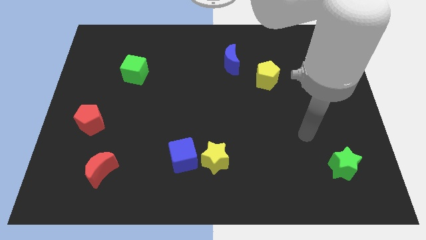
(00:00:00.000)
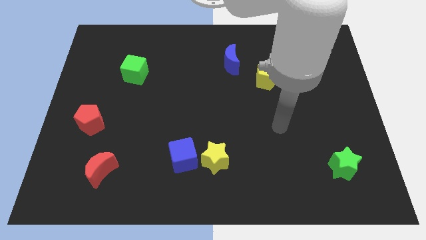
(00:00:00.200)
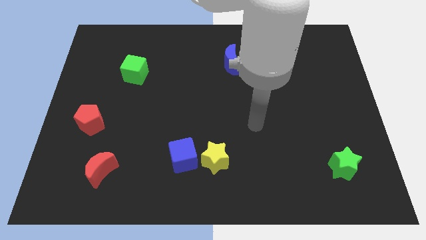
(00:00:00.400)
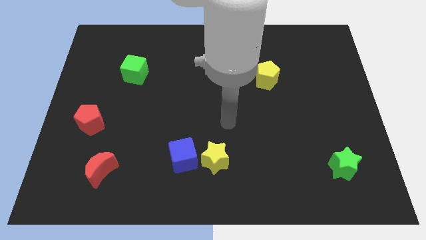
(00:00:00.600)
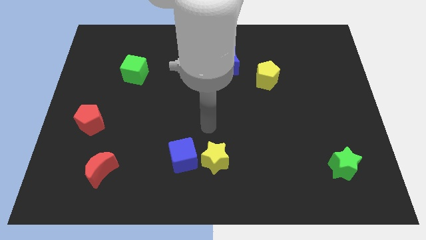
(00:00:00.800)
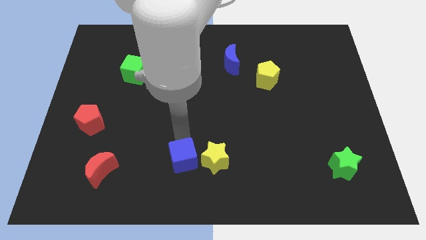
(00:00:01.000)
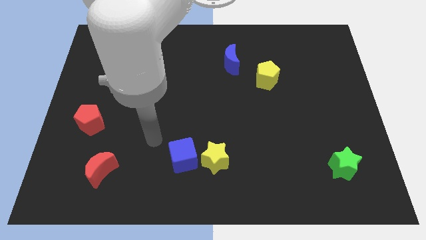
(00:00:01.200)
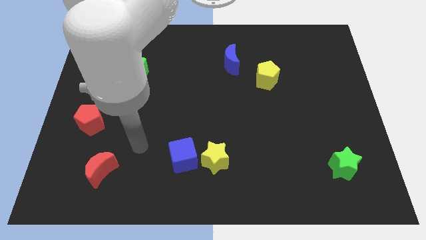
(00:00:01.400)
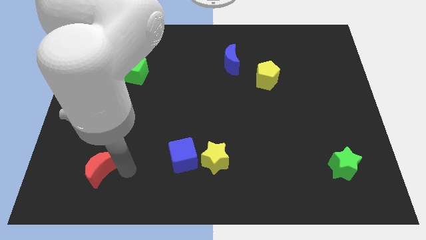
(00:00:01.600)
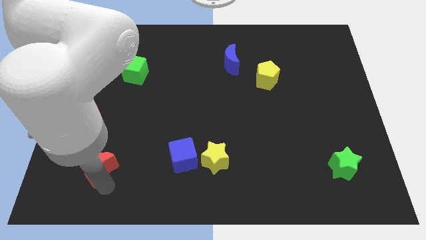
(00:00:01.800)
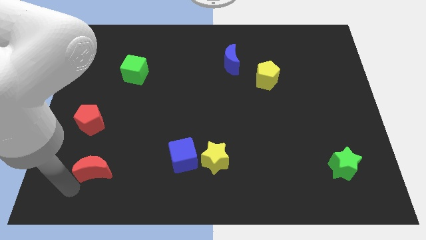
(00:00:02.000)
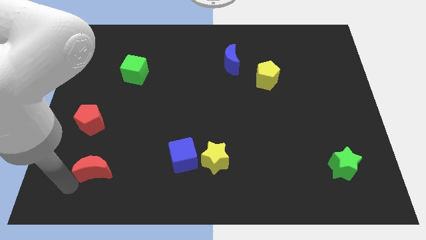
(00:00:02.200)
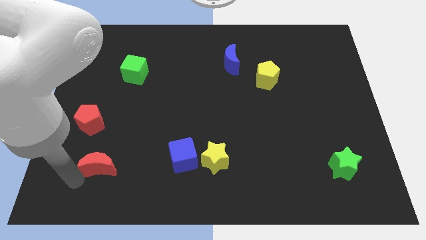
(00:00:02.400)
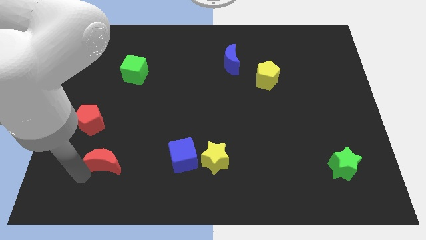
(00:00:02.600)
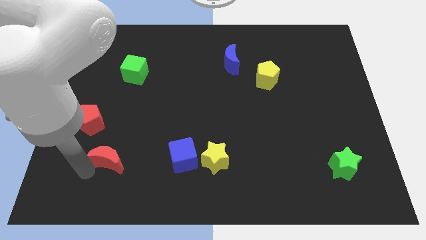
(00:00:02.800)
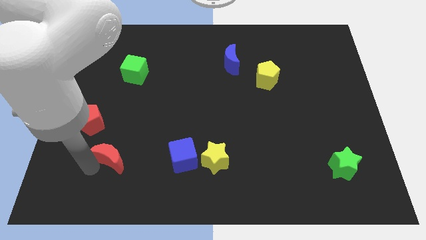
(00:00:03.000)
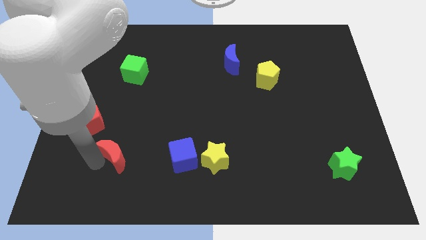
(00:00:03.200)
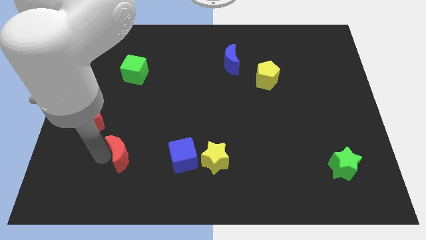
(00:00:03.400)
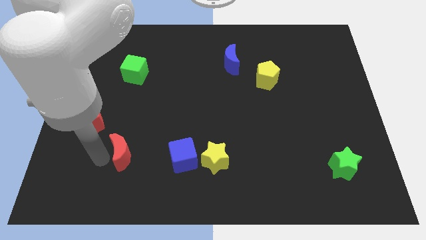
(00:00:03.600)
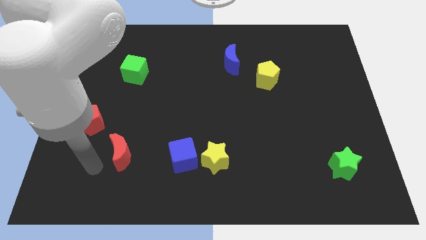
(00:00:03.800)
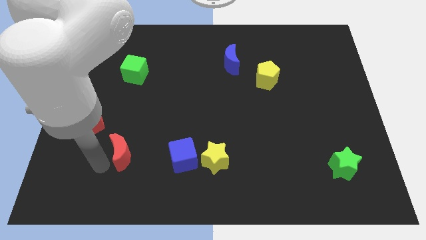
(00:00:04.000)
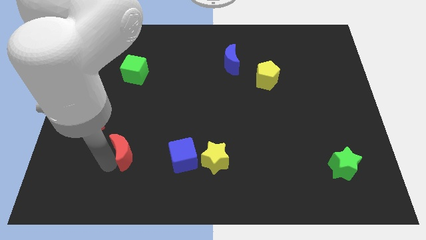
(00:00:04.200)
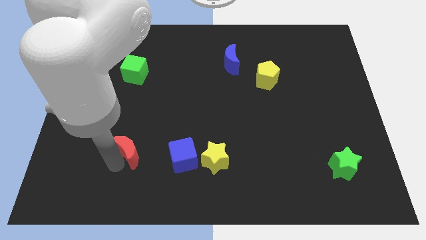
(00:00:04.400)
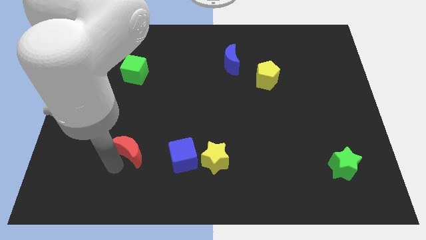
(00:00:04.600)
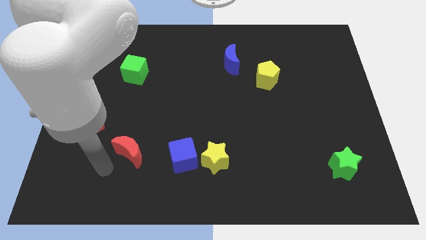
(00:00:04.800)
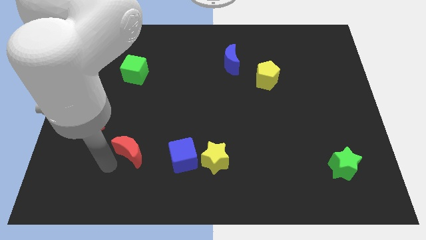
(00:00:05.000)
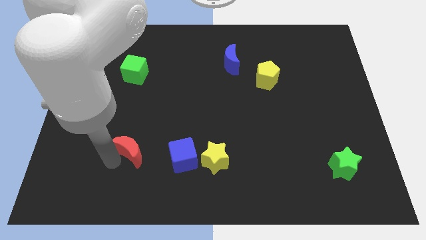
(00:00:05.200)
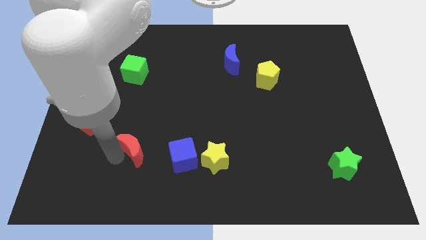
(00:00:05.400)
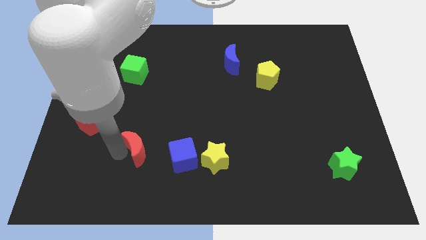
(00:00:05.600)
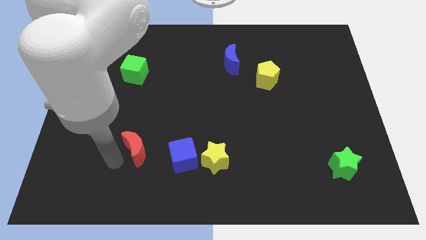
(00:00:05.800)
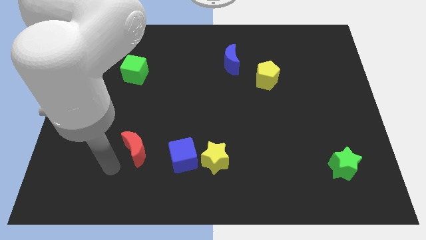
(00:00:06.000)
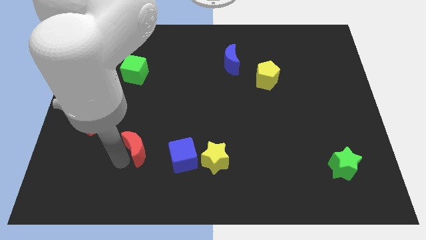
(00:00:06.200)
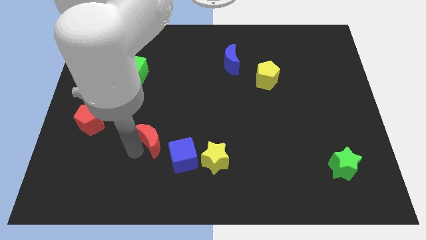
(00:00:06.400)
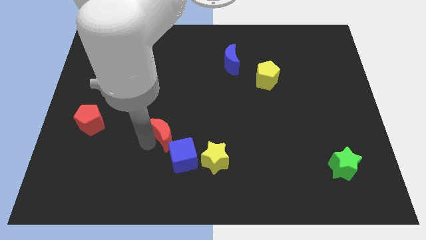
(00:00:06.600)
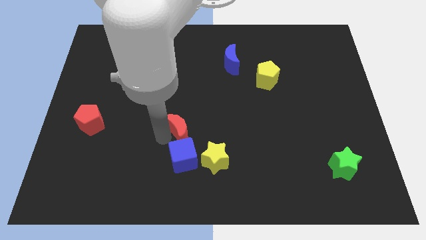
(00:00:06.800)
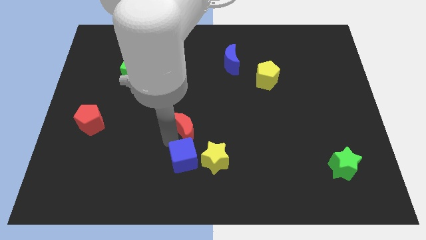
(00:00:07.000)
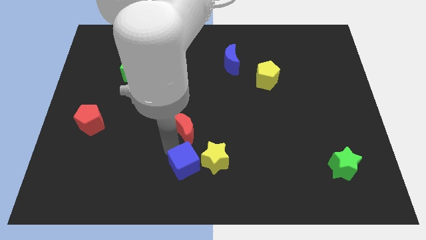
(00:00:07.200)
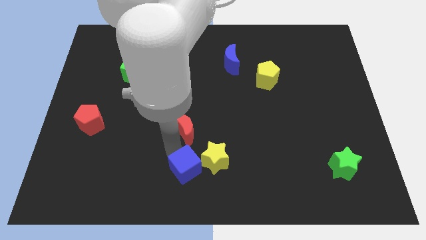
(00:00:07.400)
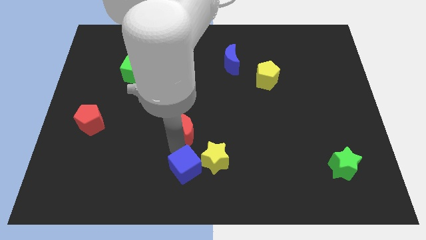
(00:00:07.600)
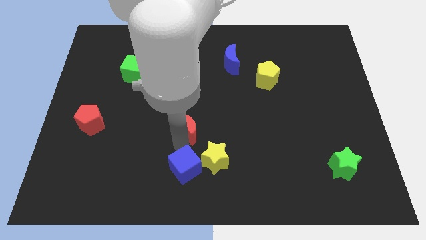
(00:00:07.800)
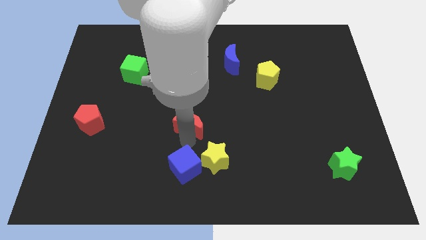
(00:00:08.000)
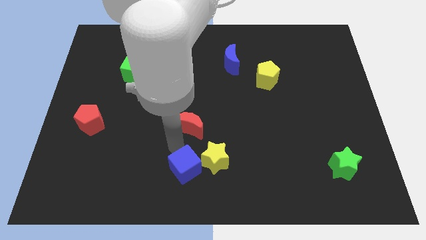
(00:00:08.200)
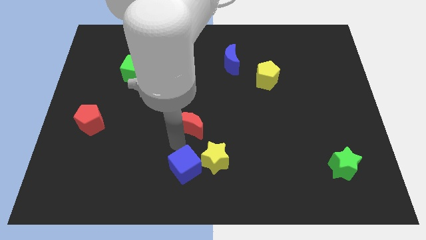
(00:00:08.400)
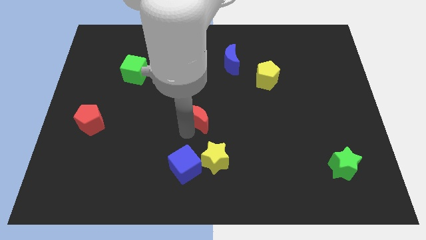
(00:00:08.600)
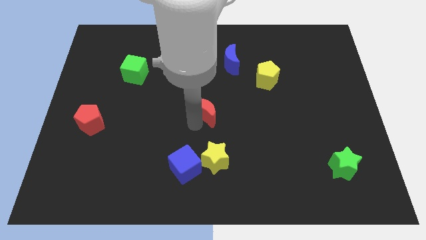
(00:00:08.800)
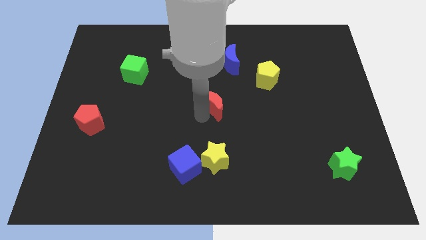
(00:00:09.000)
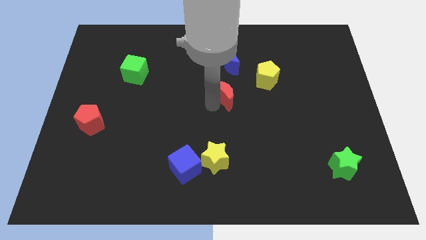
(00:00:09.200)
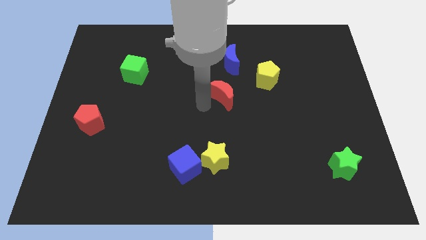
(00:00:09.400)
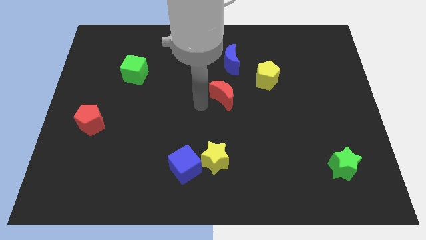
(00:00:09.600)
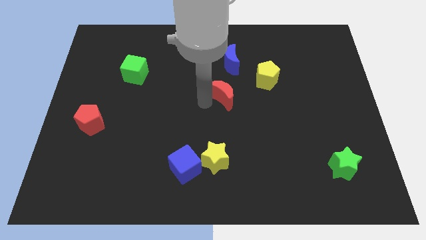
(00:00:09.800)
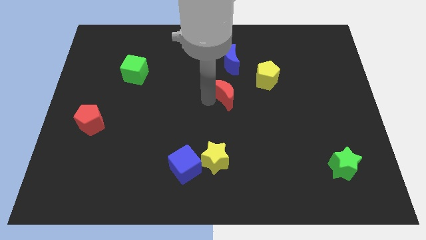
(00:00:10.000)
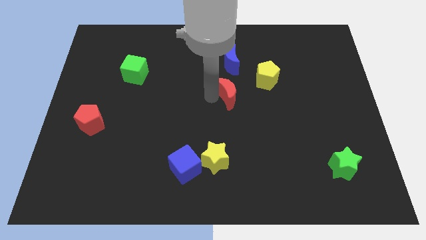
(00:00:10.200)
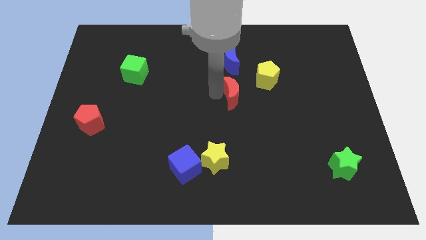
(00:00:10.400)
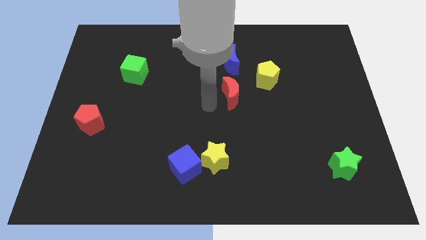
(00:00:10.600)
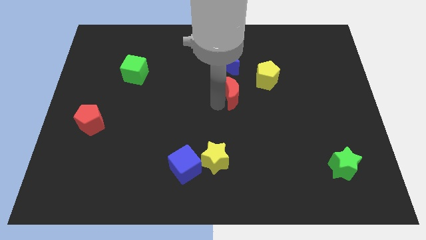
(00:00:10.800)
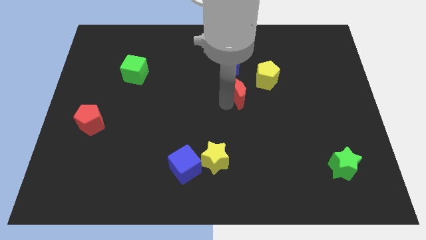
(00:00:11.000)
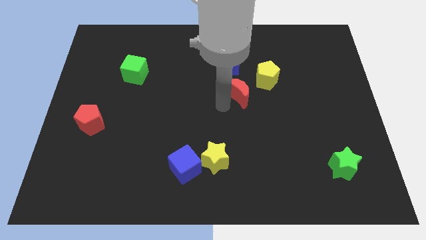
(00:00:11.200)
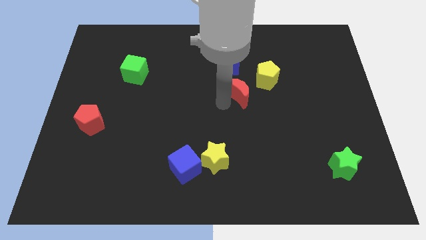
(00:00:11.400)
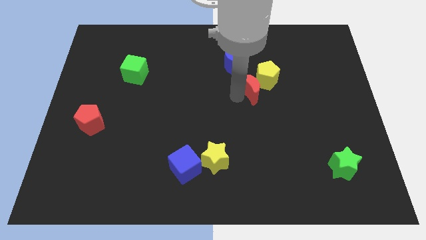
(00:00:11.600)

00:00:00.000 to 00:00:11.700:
slide the red moon to the yellow pentagon

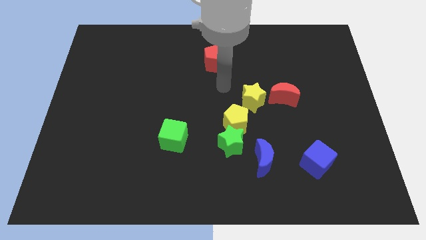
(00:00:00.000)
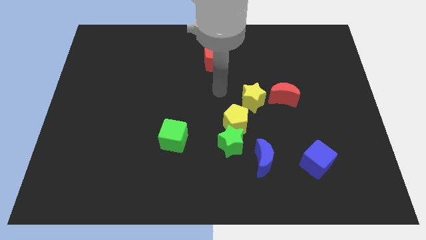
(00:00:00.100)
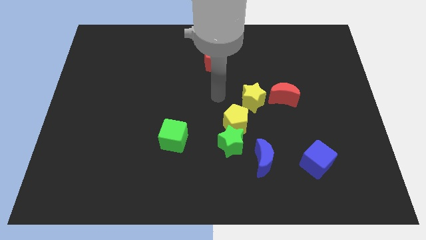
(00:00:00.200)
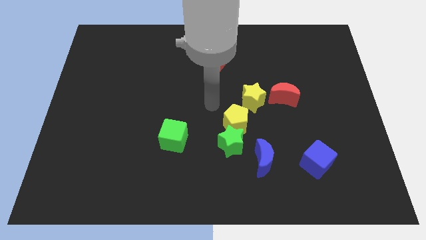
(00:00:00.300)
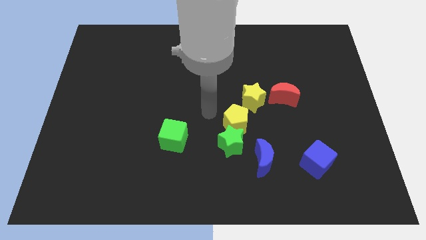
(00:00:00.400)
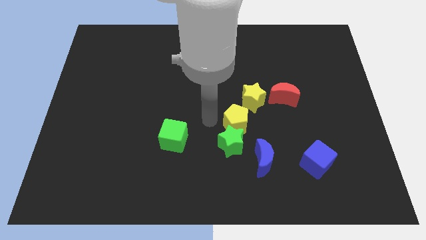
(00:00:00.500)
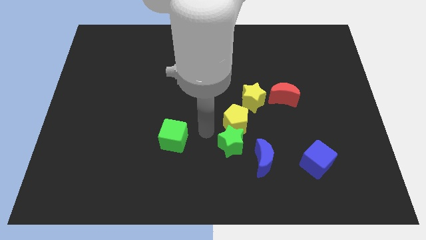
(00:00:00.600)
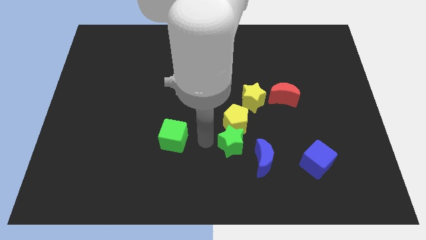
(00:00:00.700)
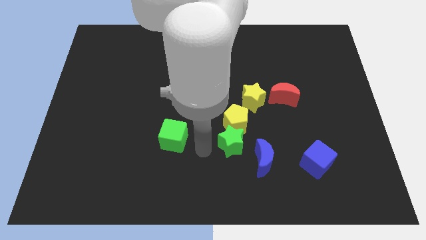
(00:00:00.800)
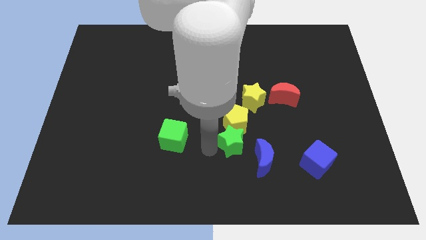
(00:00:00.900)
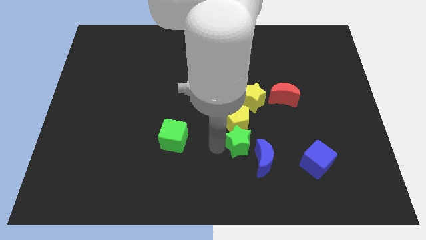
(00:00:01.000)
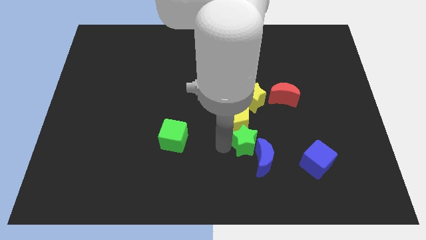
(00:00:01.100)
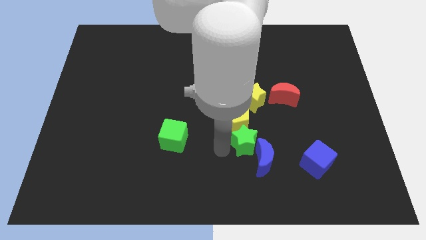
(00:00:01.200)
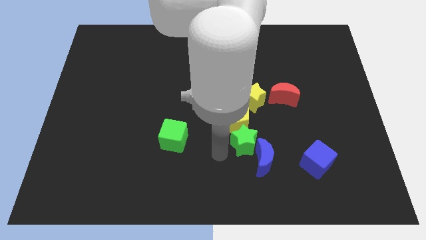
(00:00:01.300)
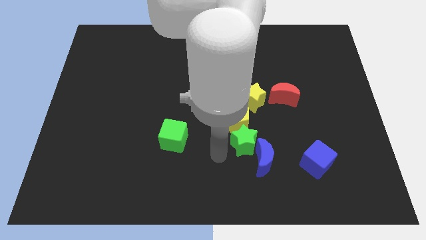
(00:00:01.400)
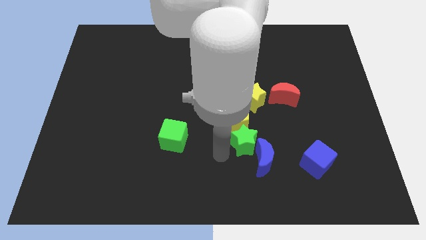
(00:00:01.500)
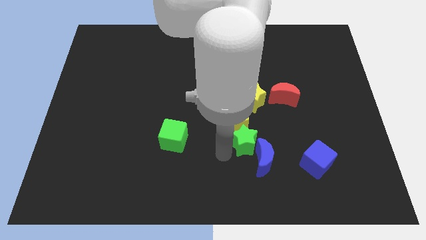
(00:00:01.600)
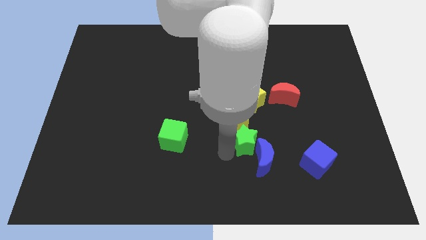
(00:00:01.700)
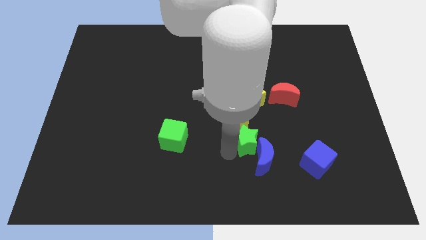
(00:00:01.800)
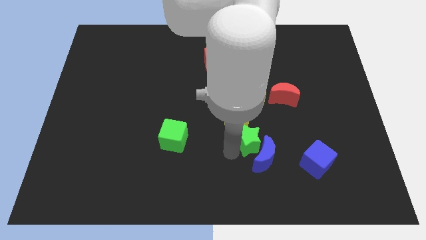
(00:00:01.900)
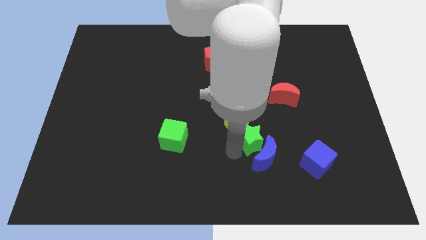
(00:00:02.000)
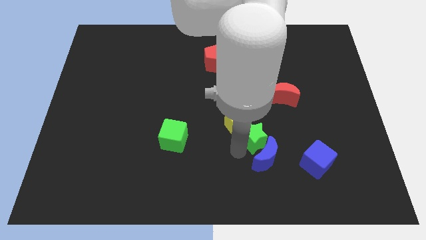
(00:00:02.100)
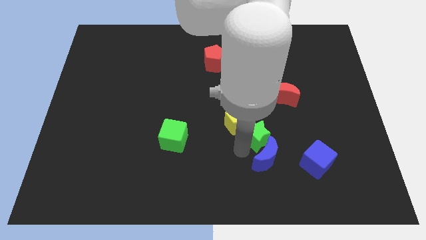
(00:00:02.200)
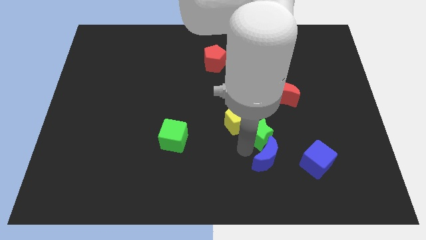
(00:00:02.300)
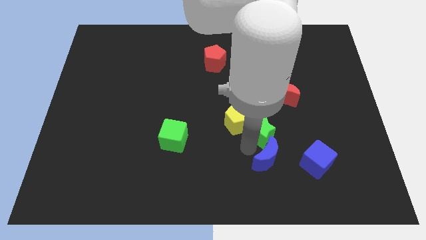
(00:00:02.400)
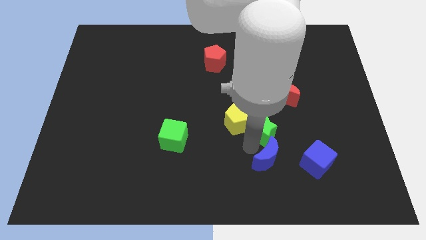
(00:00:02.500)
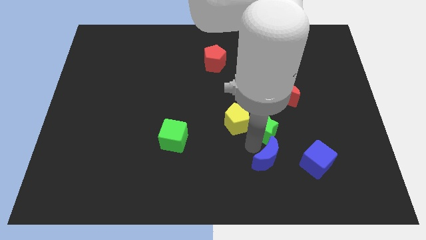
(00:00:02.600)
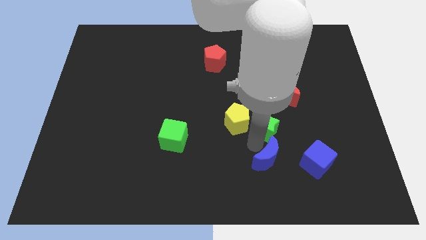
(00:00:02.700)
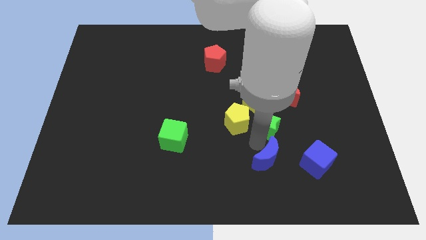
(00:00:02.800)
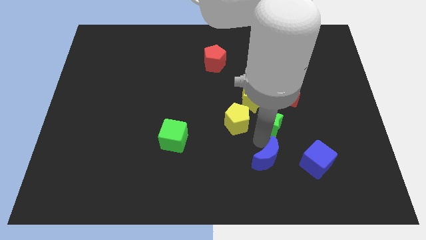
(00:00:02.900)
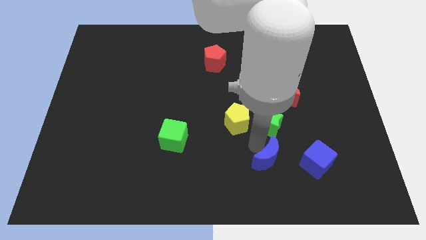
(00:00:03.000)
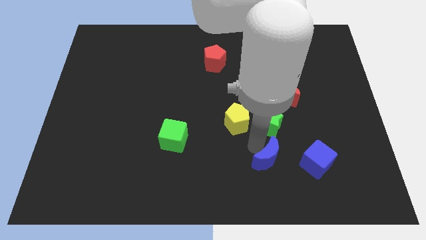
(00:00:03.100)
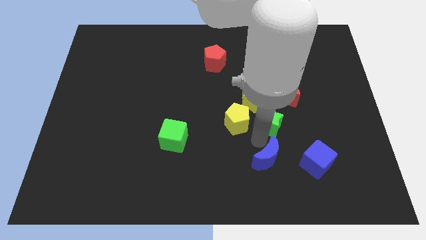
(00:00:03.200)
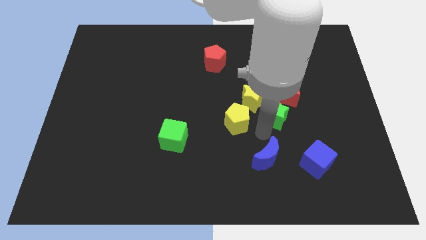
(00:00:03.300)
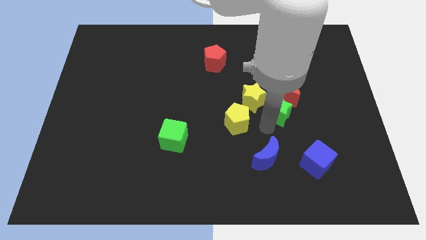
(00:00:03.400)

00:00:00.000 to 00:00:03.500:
push the green star to the red moon
